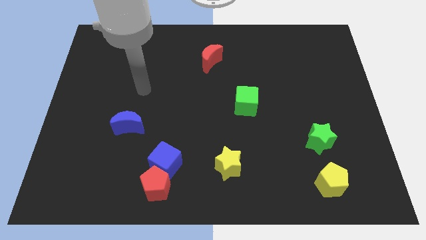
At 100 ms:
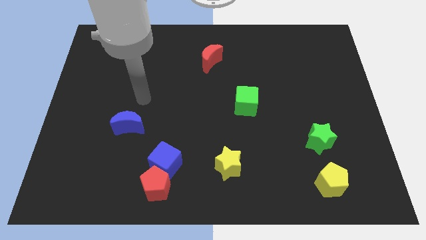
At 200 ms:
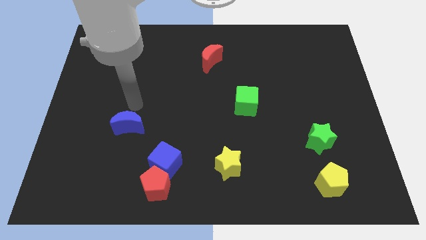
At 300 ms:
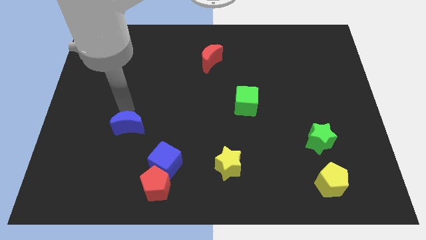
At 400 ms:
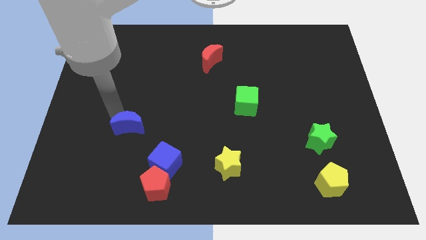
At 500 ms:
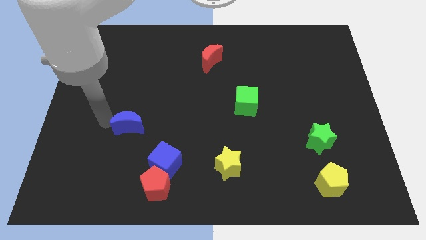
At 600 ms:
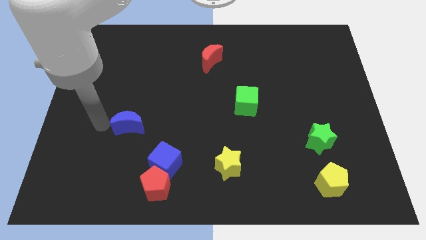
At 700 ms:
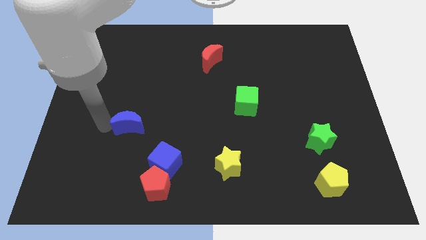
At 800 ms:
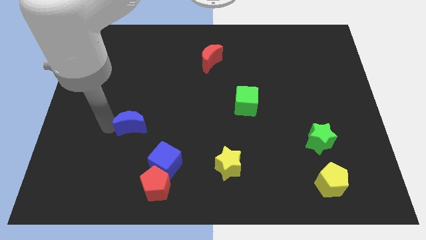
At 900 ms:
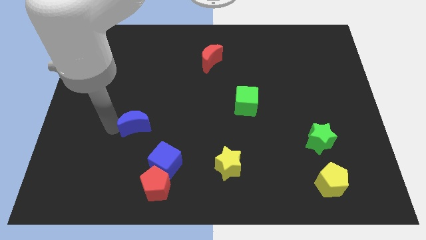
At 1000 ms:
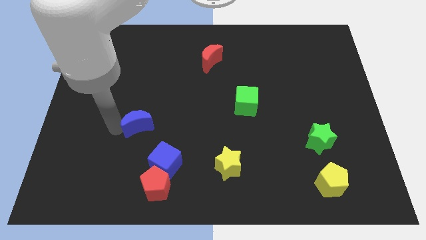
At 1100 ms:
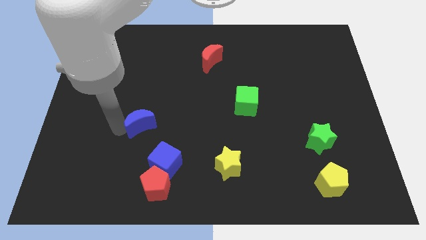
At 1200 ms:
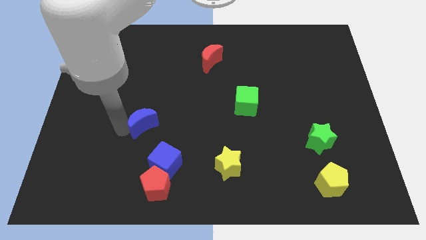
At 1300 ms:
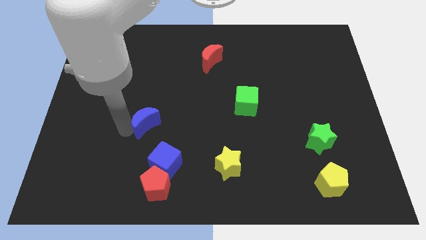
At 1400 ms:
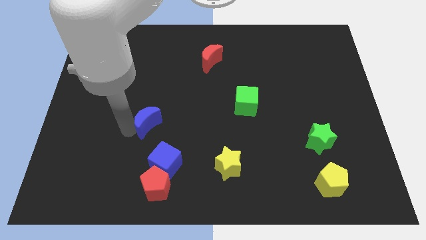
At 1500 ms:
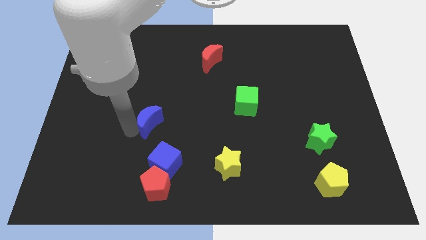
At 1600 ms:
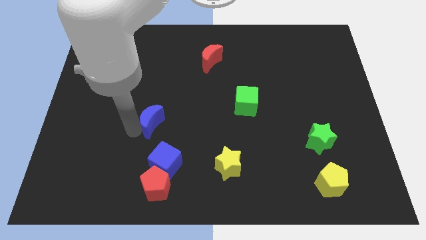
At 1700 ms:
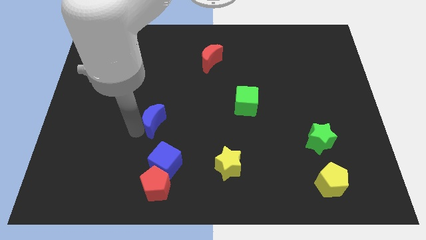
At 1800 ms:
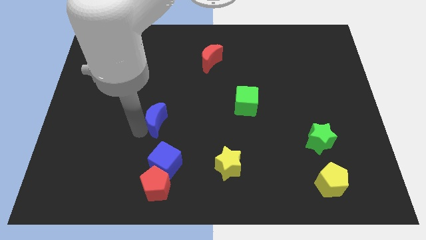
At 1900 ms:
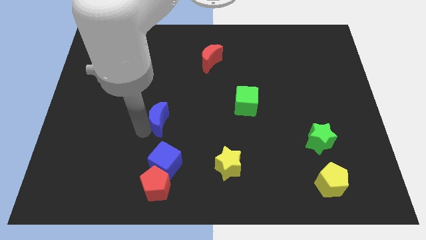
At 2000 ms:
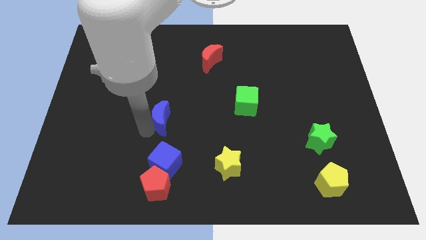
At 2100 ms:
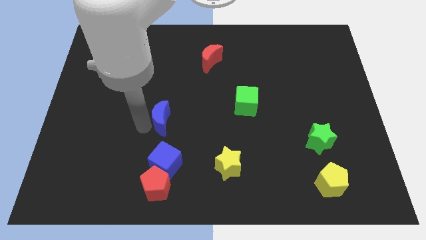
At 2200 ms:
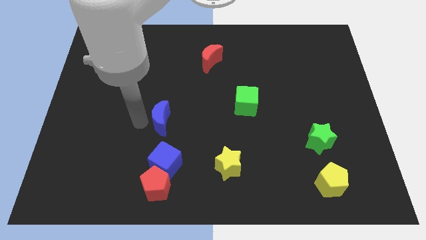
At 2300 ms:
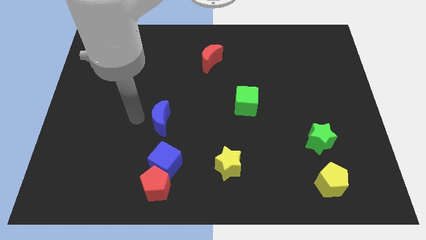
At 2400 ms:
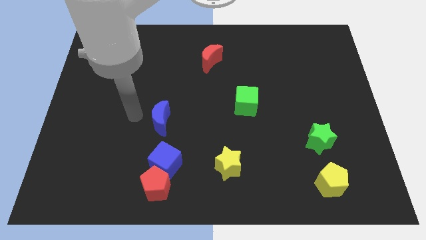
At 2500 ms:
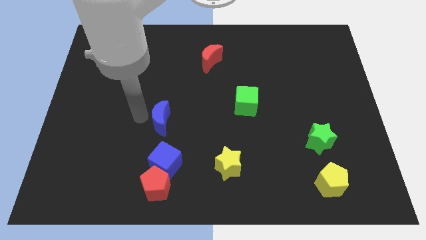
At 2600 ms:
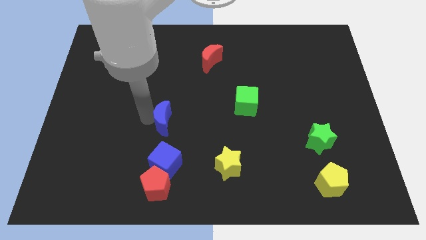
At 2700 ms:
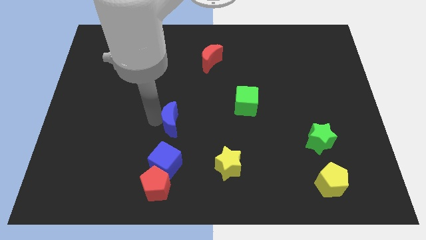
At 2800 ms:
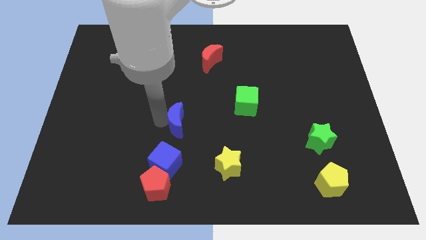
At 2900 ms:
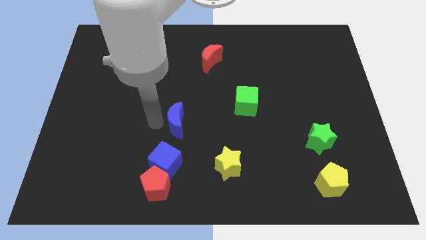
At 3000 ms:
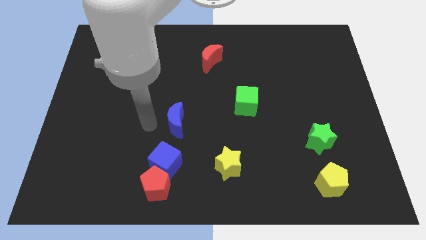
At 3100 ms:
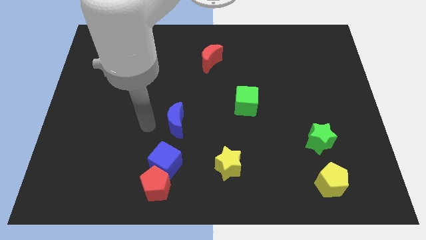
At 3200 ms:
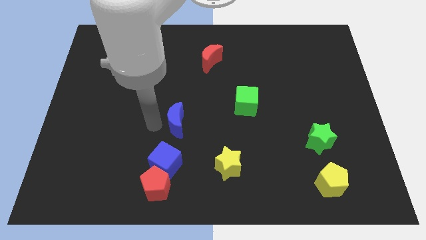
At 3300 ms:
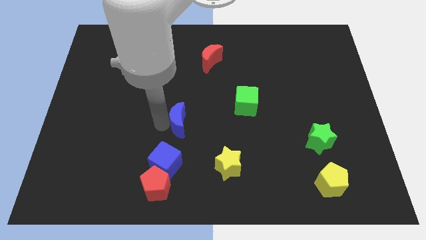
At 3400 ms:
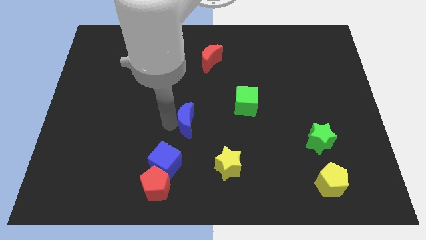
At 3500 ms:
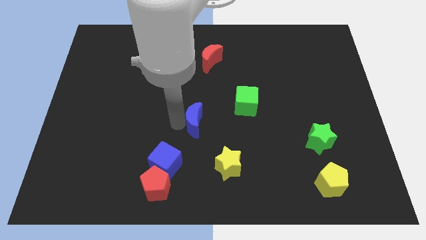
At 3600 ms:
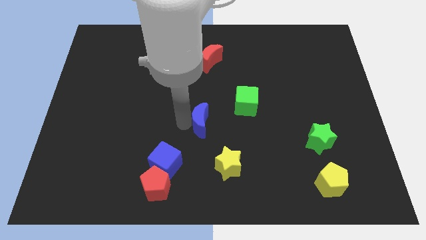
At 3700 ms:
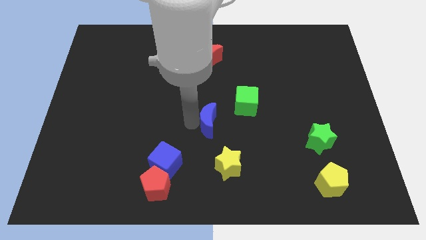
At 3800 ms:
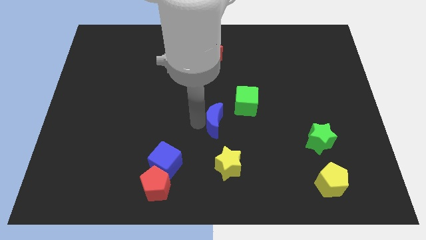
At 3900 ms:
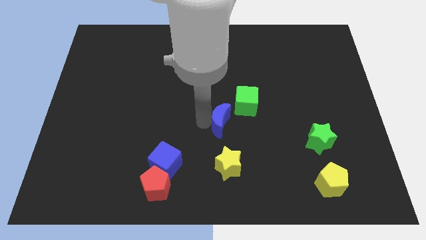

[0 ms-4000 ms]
slide the blue moon right

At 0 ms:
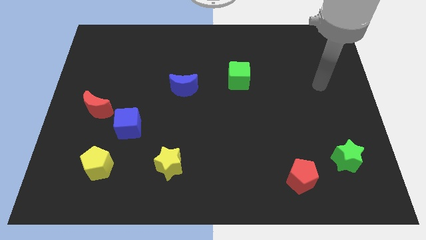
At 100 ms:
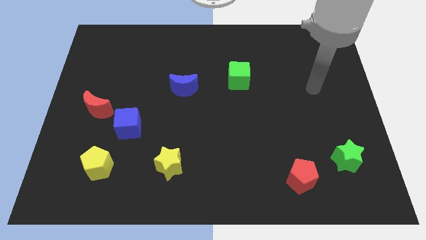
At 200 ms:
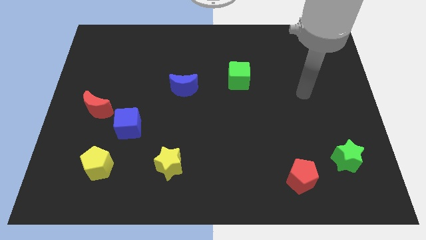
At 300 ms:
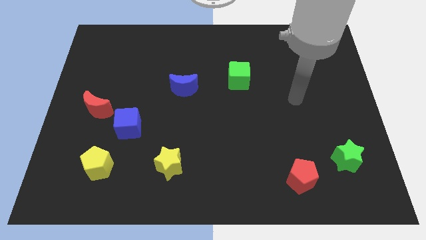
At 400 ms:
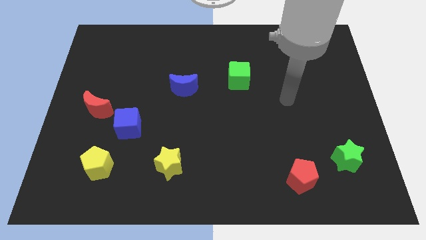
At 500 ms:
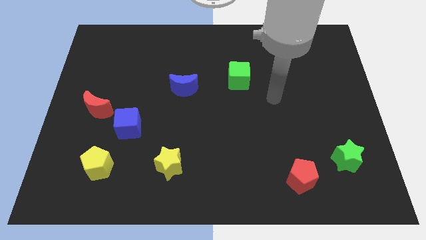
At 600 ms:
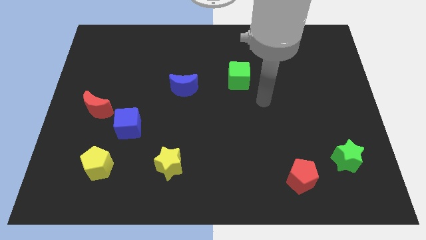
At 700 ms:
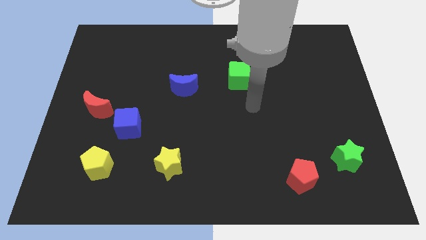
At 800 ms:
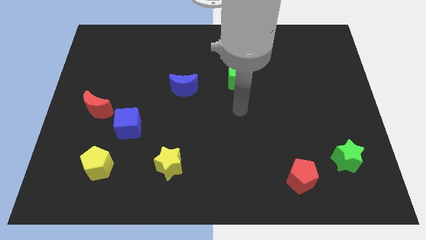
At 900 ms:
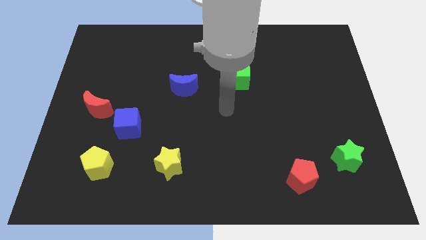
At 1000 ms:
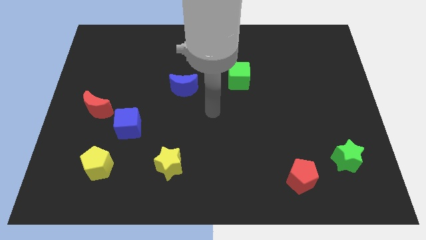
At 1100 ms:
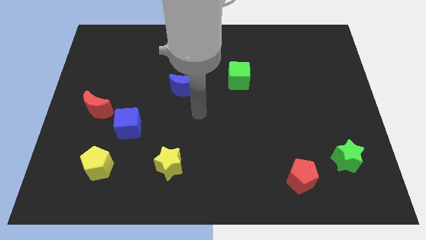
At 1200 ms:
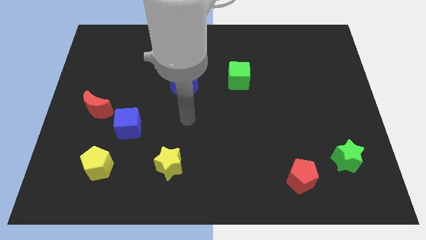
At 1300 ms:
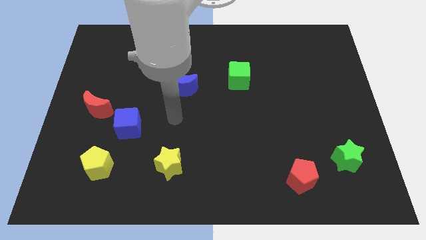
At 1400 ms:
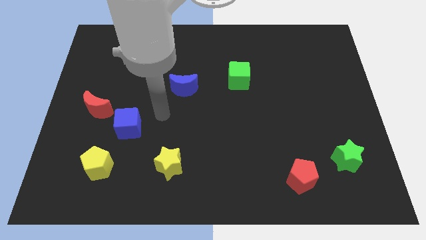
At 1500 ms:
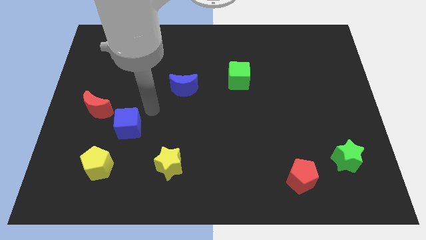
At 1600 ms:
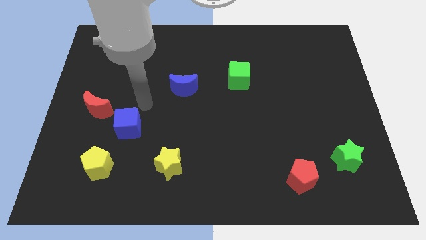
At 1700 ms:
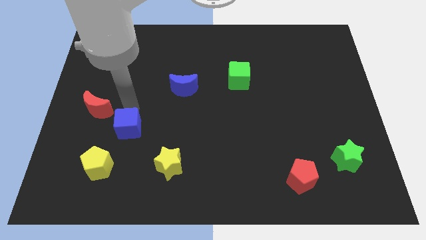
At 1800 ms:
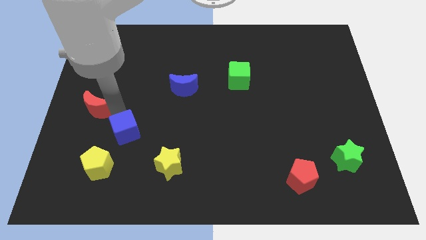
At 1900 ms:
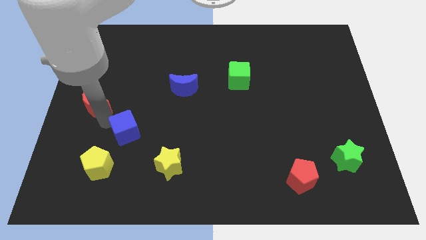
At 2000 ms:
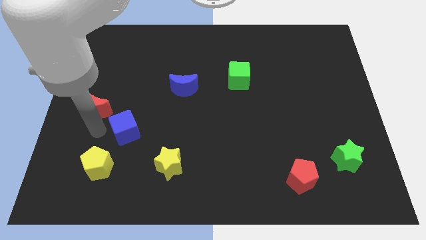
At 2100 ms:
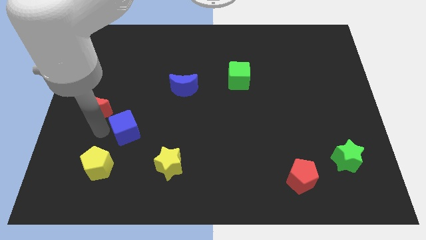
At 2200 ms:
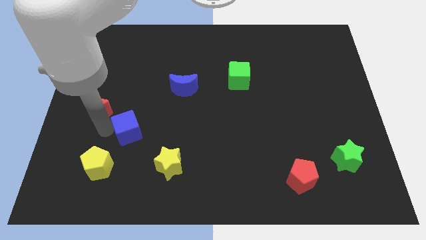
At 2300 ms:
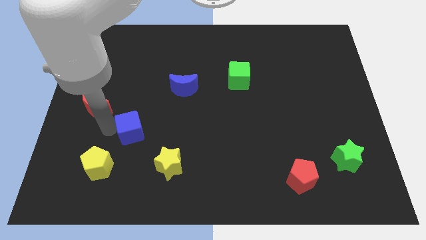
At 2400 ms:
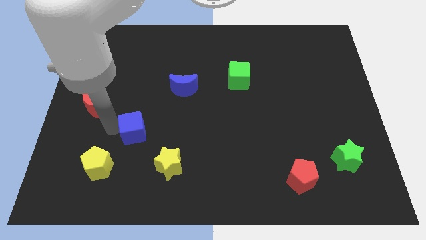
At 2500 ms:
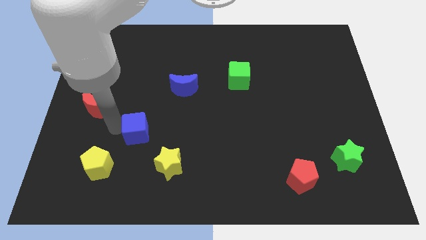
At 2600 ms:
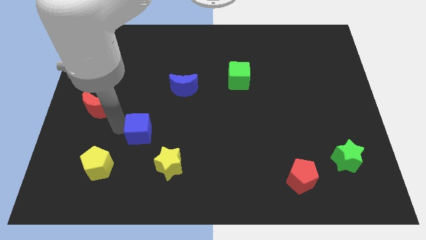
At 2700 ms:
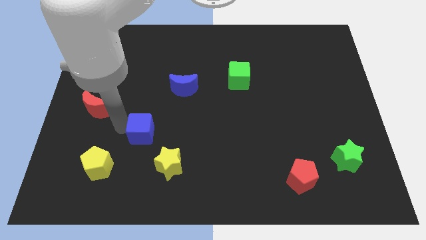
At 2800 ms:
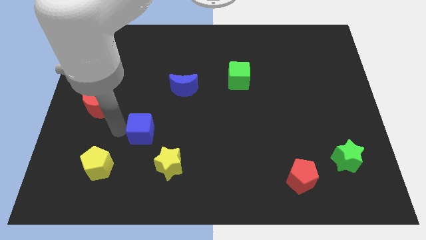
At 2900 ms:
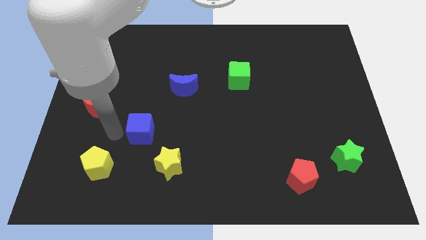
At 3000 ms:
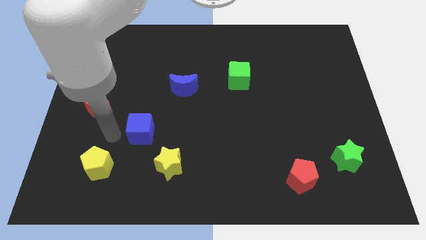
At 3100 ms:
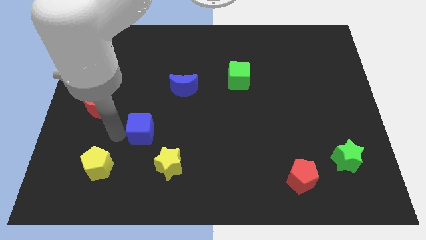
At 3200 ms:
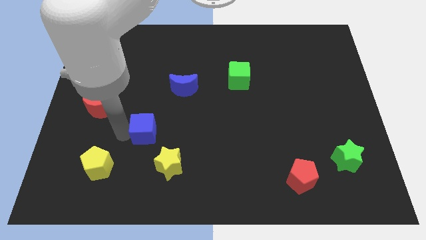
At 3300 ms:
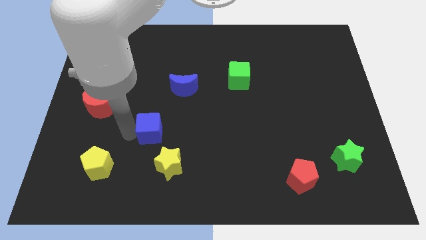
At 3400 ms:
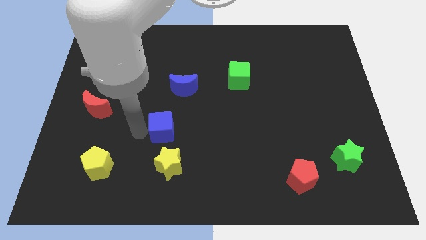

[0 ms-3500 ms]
slightly push the blue cube right

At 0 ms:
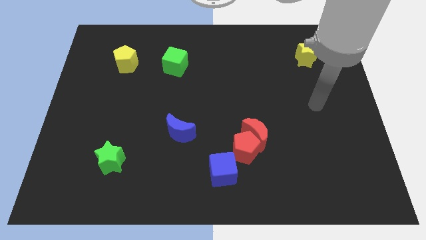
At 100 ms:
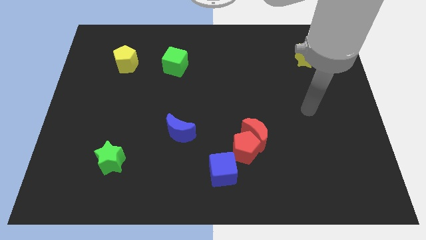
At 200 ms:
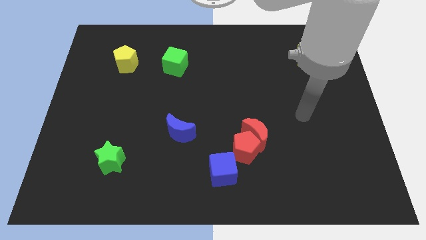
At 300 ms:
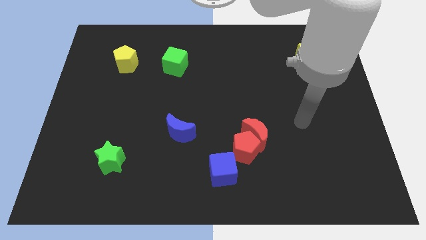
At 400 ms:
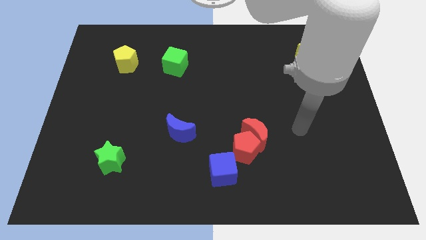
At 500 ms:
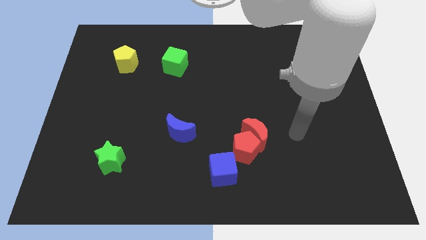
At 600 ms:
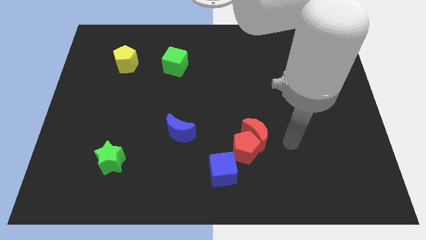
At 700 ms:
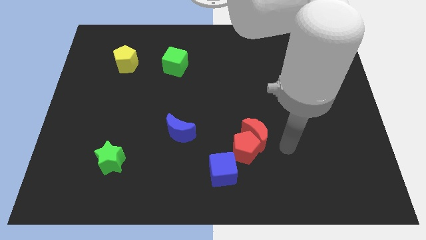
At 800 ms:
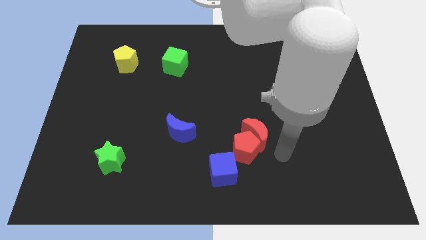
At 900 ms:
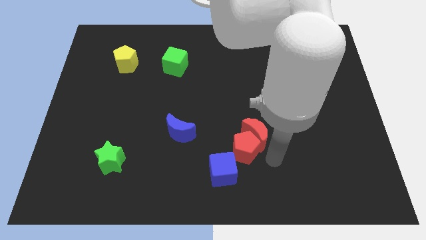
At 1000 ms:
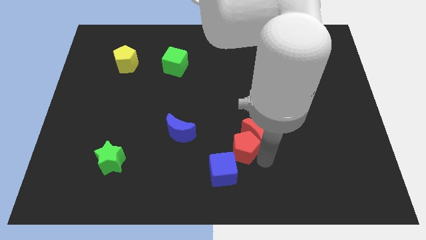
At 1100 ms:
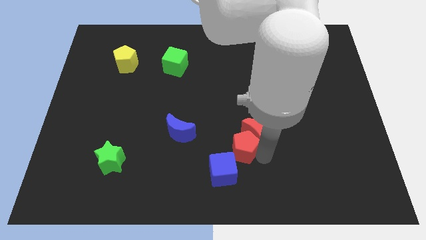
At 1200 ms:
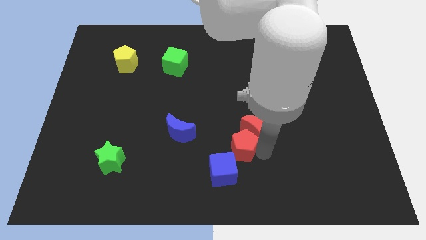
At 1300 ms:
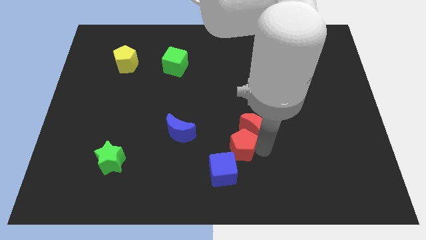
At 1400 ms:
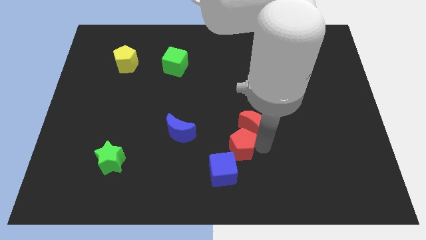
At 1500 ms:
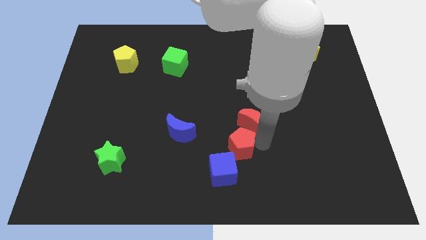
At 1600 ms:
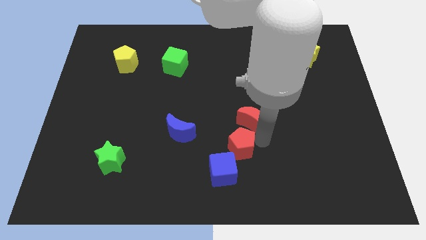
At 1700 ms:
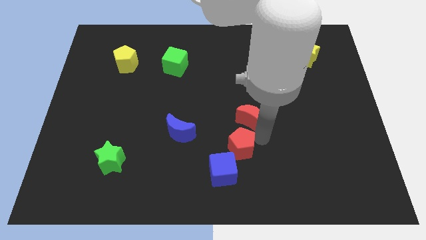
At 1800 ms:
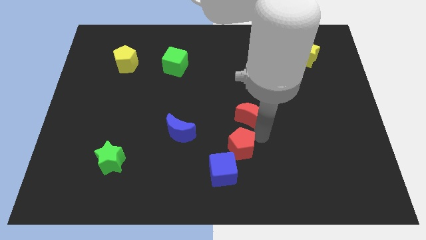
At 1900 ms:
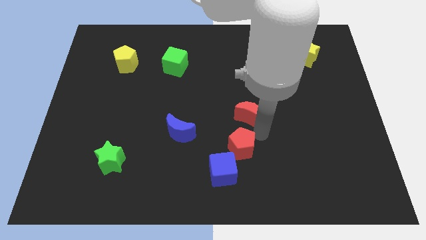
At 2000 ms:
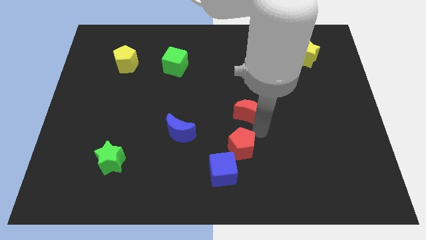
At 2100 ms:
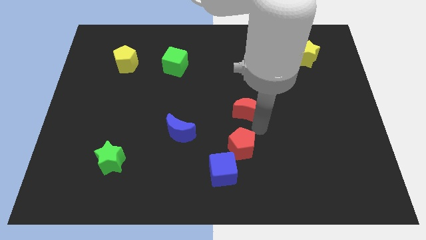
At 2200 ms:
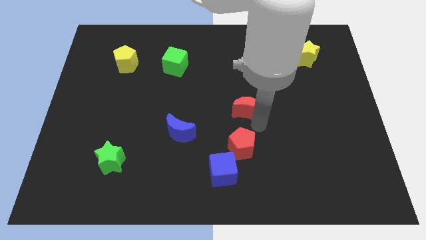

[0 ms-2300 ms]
slightly slide the red moon upwards
